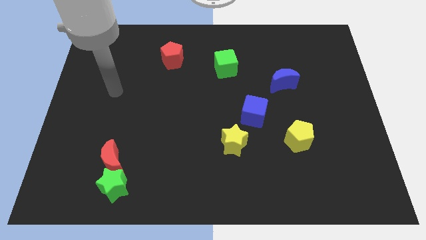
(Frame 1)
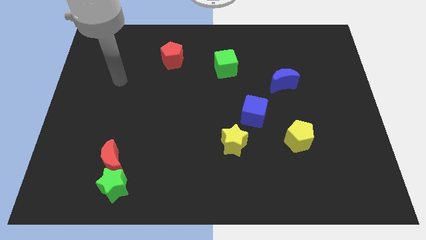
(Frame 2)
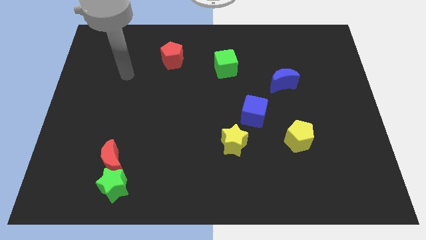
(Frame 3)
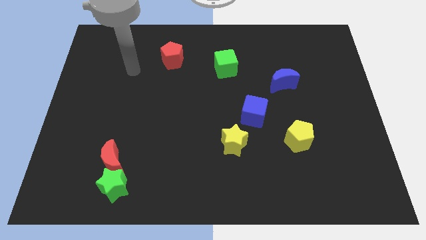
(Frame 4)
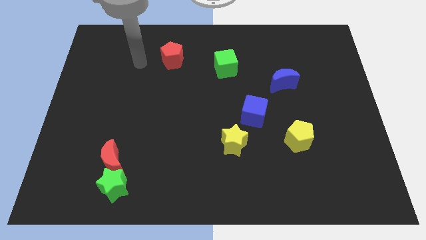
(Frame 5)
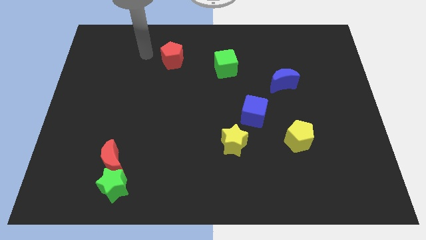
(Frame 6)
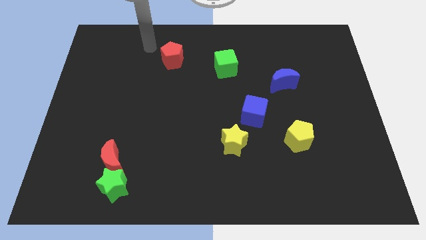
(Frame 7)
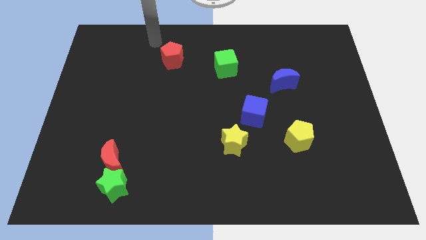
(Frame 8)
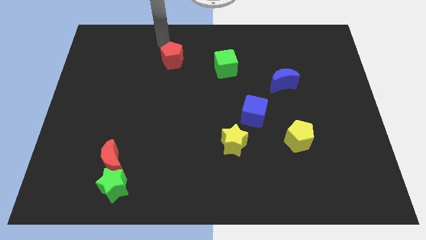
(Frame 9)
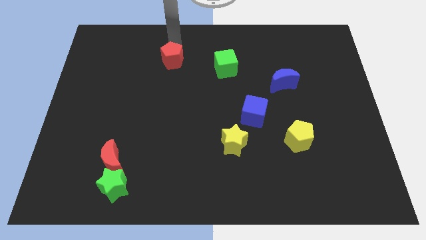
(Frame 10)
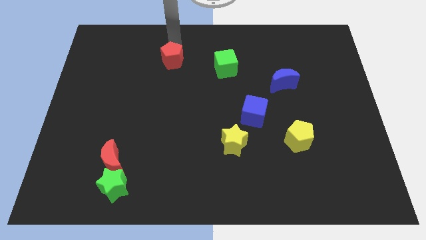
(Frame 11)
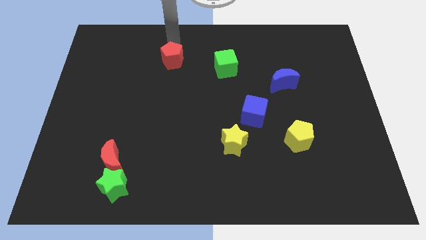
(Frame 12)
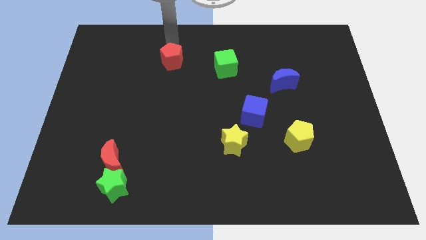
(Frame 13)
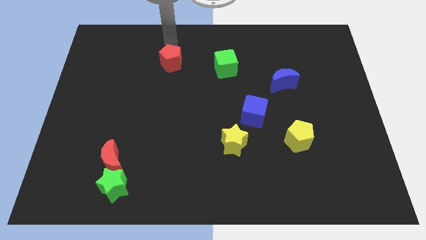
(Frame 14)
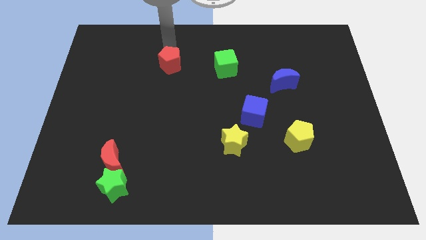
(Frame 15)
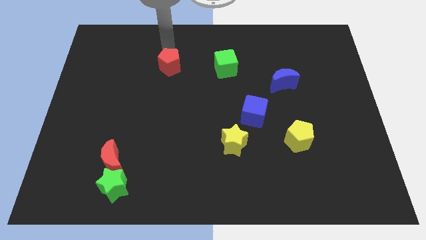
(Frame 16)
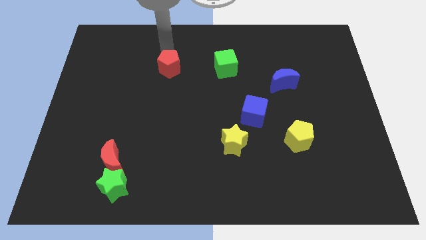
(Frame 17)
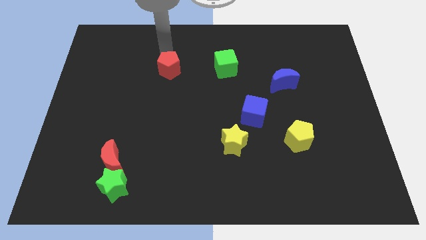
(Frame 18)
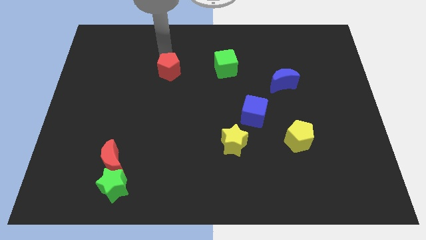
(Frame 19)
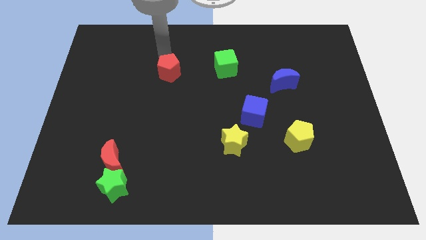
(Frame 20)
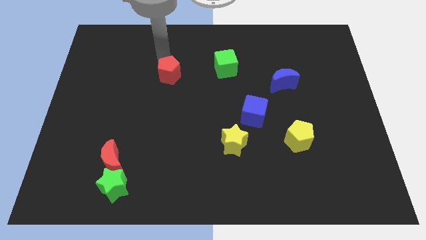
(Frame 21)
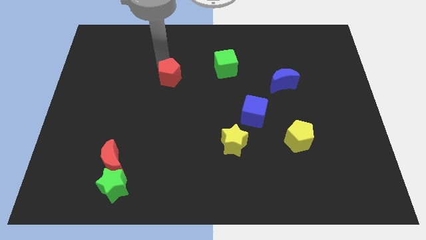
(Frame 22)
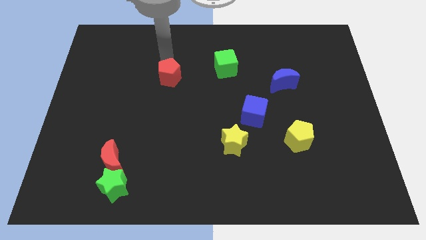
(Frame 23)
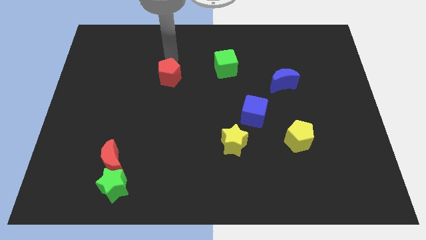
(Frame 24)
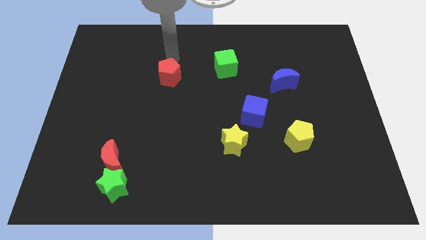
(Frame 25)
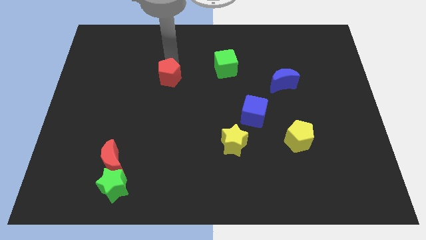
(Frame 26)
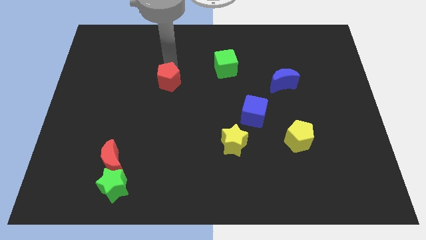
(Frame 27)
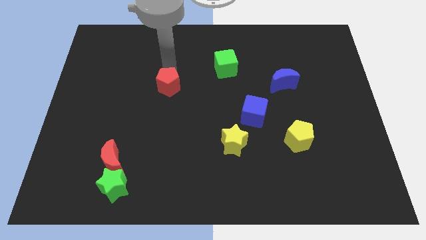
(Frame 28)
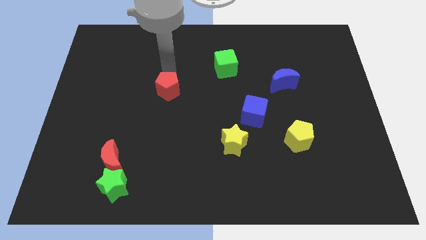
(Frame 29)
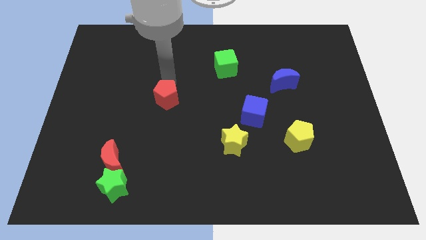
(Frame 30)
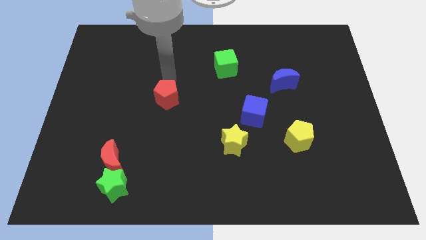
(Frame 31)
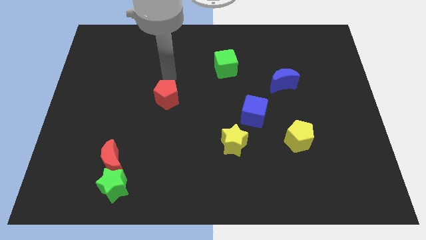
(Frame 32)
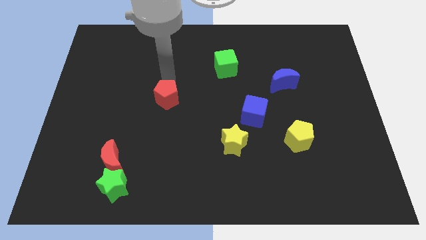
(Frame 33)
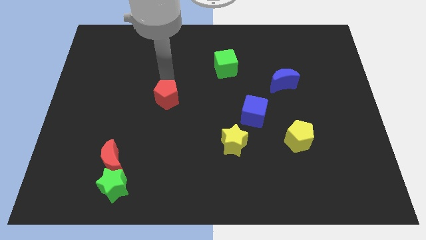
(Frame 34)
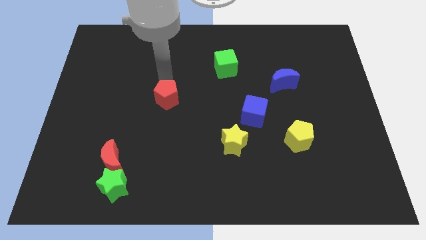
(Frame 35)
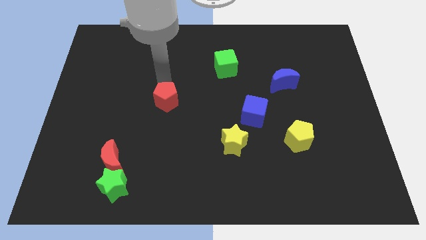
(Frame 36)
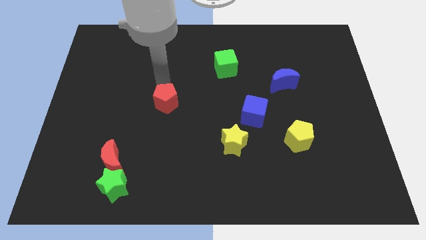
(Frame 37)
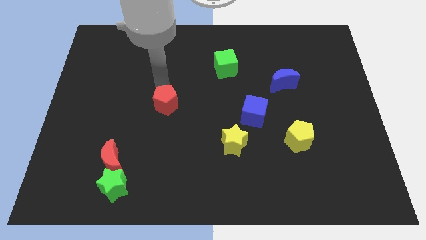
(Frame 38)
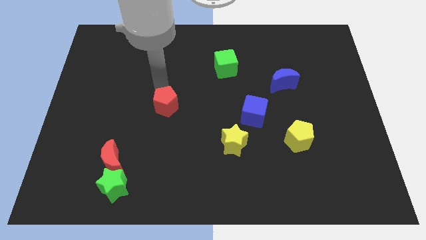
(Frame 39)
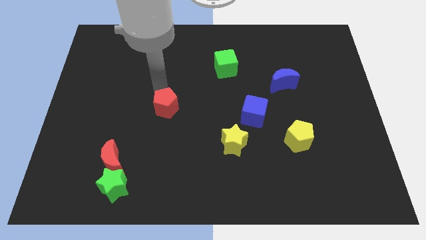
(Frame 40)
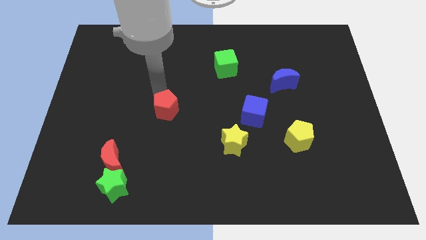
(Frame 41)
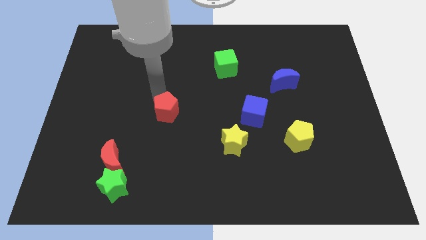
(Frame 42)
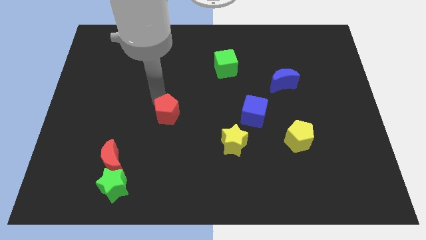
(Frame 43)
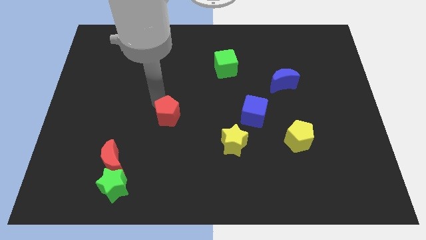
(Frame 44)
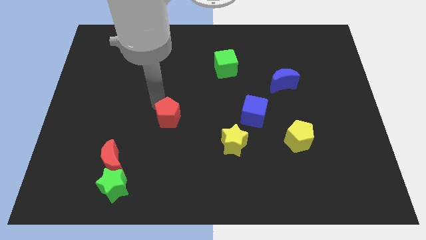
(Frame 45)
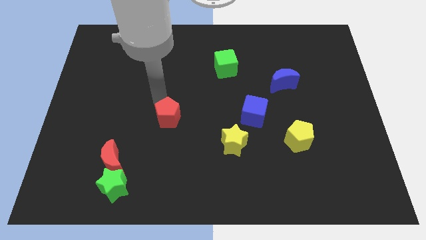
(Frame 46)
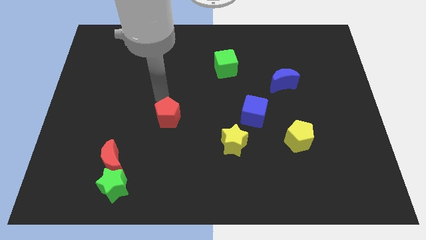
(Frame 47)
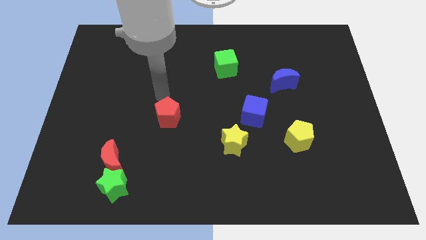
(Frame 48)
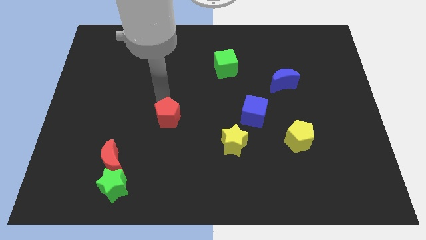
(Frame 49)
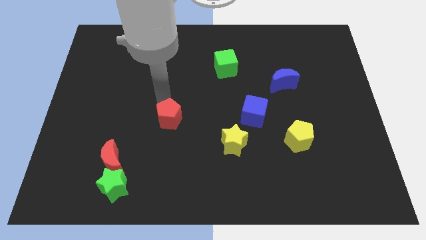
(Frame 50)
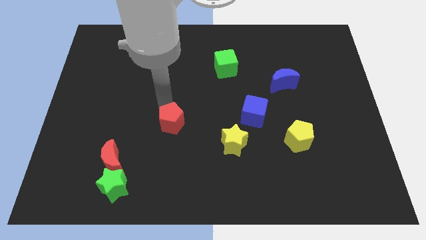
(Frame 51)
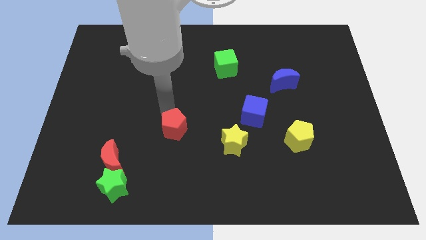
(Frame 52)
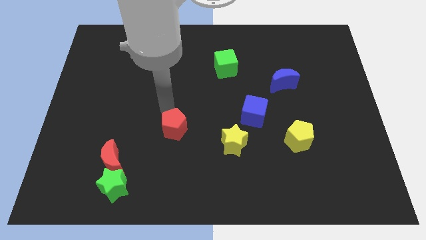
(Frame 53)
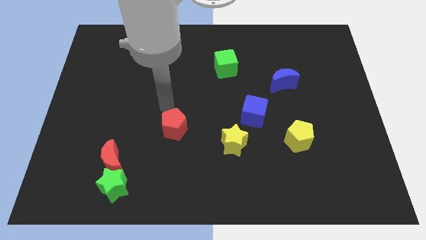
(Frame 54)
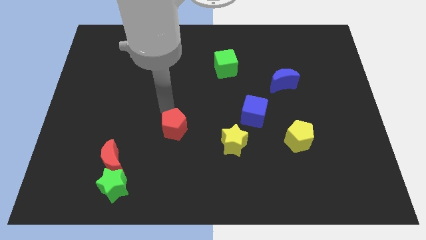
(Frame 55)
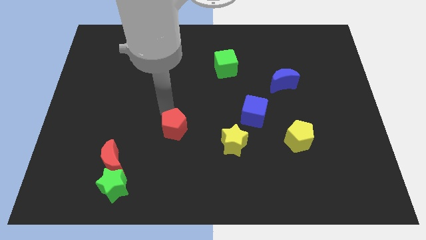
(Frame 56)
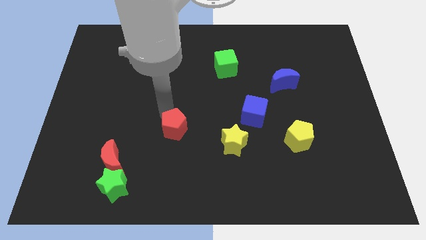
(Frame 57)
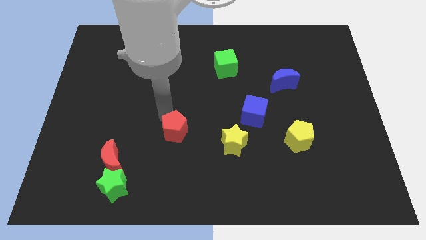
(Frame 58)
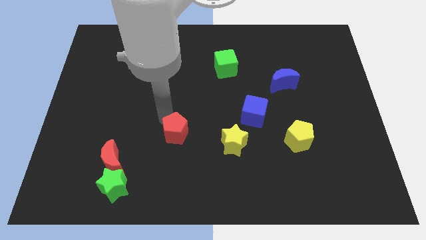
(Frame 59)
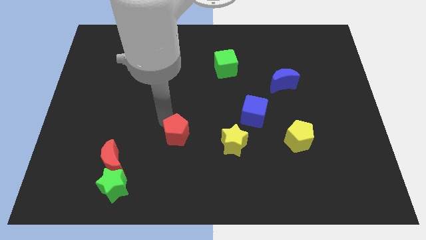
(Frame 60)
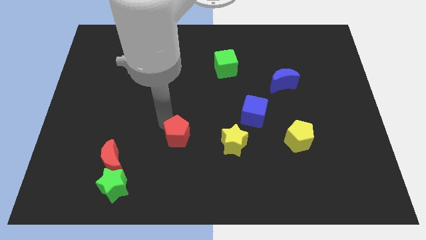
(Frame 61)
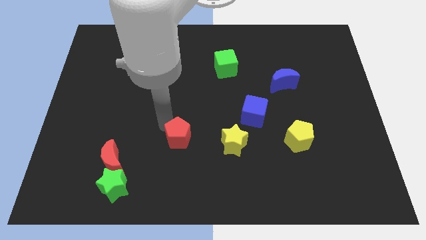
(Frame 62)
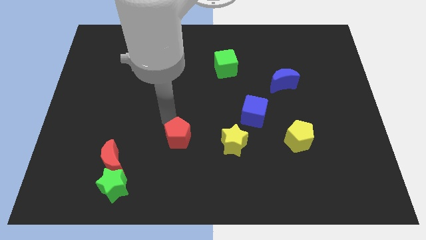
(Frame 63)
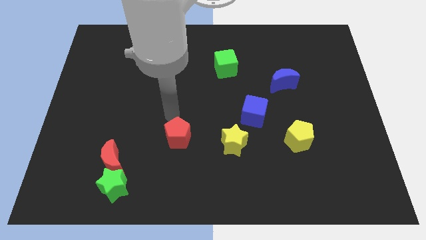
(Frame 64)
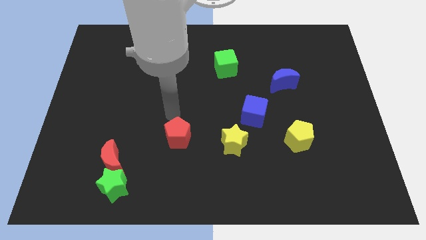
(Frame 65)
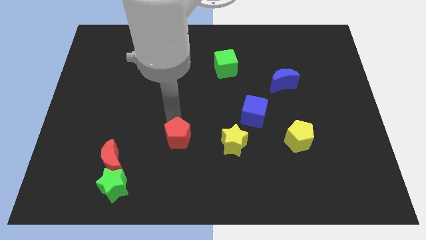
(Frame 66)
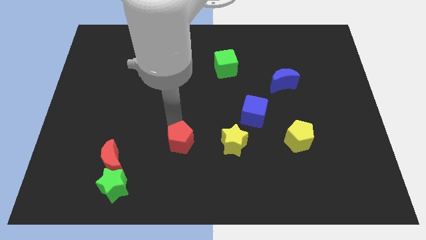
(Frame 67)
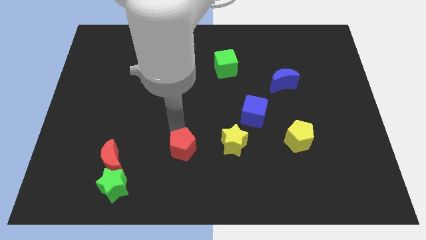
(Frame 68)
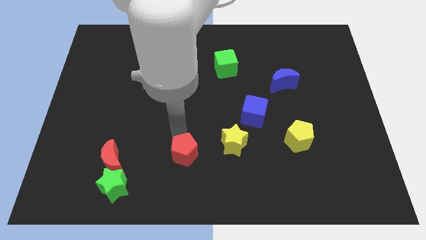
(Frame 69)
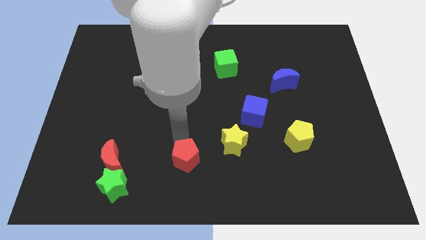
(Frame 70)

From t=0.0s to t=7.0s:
move the red pentagon to the bottom
